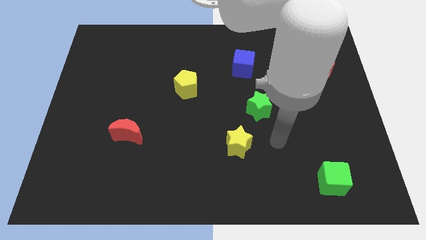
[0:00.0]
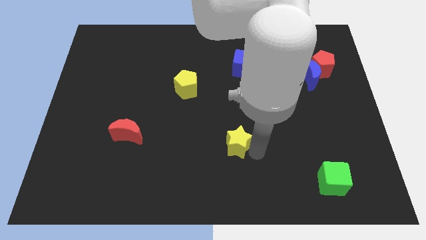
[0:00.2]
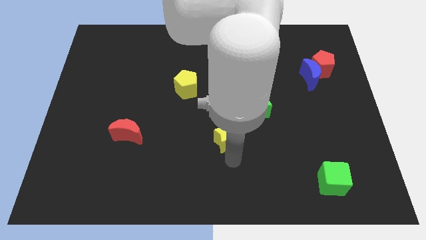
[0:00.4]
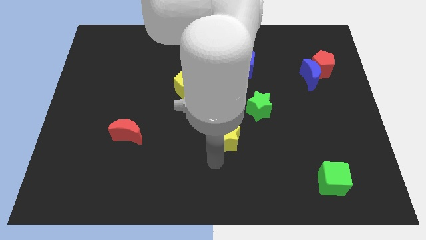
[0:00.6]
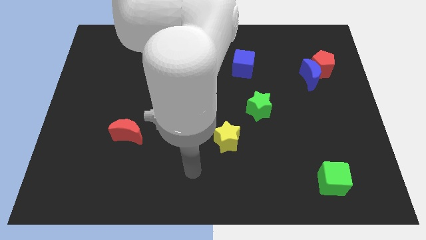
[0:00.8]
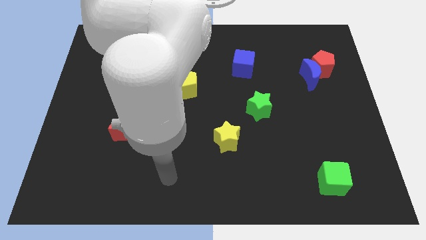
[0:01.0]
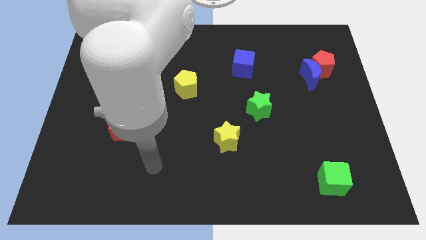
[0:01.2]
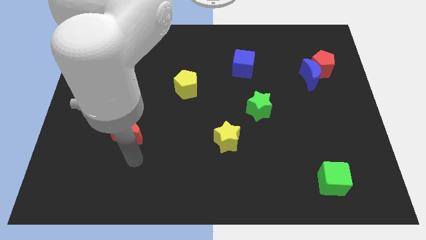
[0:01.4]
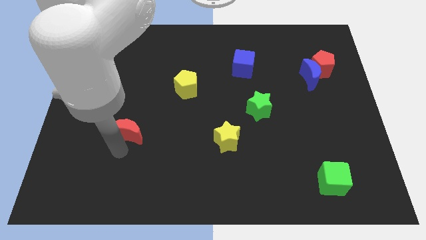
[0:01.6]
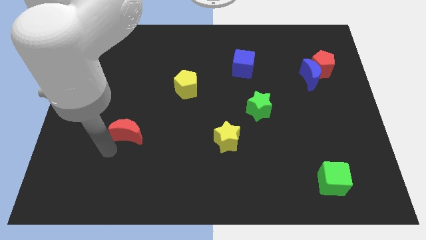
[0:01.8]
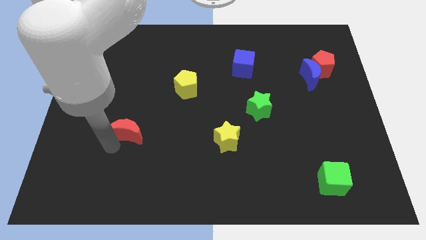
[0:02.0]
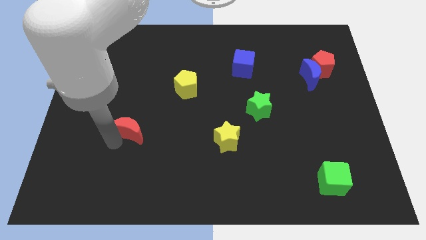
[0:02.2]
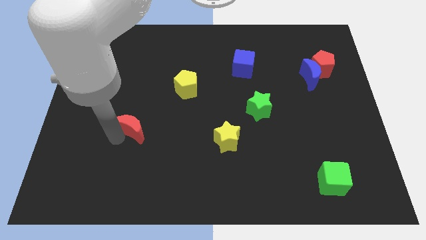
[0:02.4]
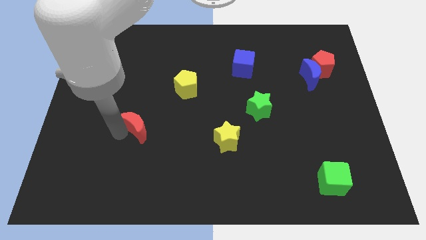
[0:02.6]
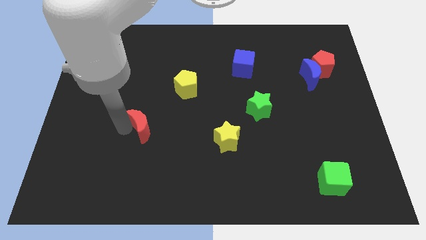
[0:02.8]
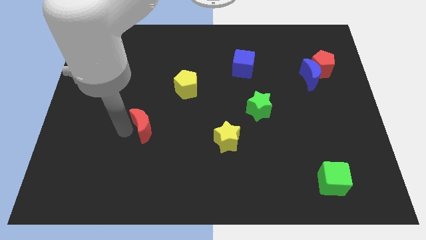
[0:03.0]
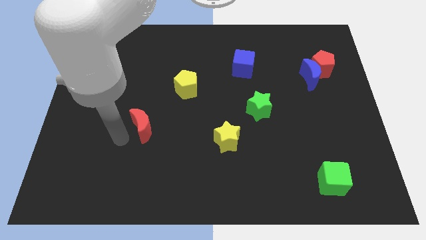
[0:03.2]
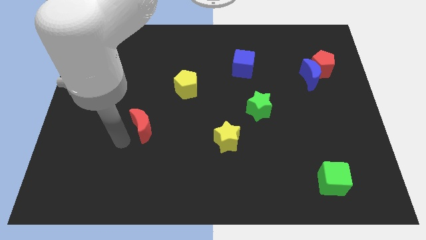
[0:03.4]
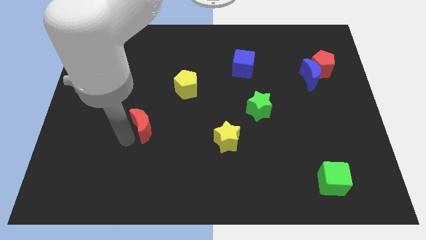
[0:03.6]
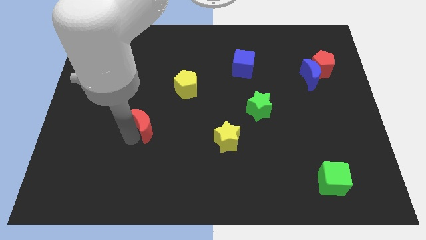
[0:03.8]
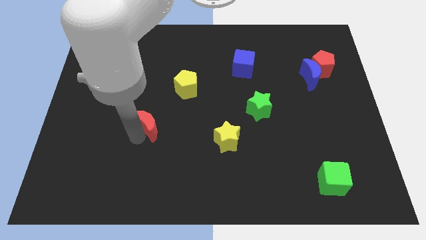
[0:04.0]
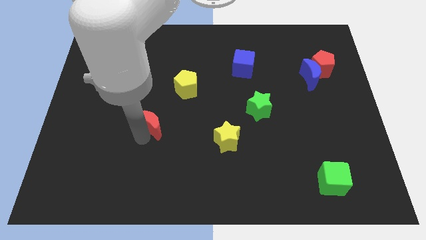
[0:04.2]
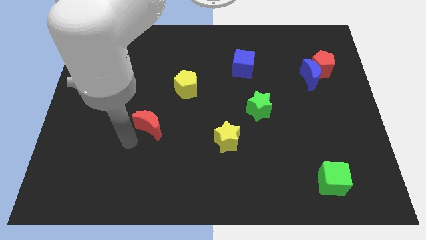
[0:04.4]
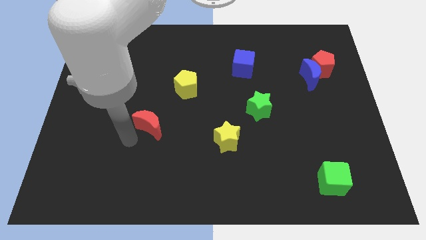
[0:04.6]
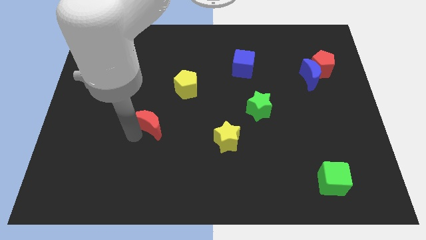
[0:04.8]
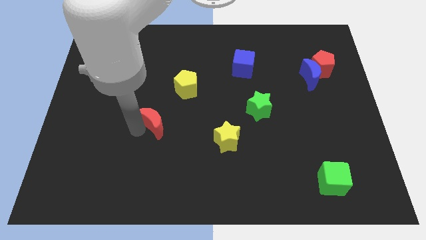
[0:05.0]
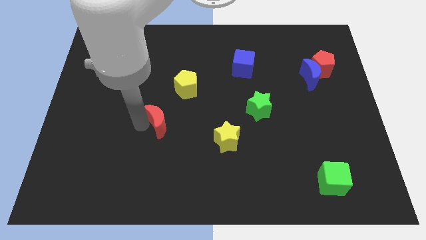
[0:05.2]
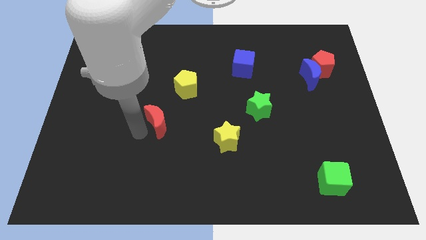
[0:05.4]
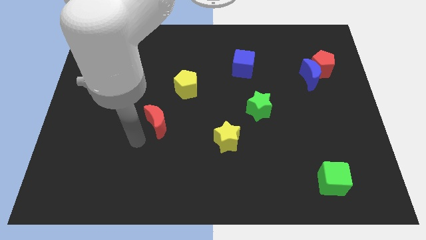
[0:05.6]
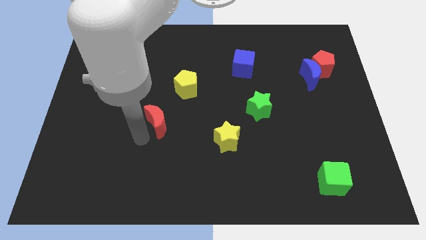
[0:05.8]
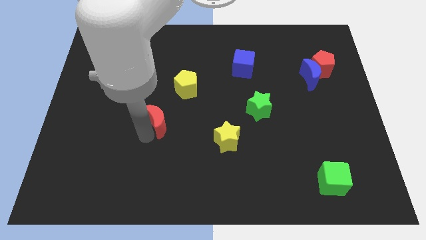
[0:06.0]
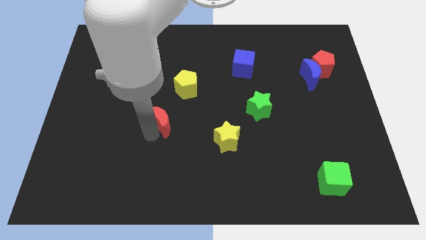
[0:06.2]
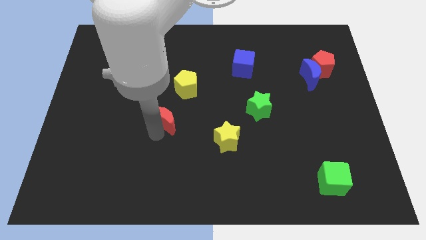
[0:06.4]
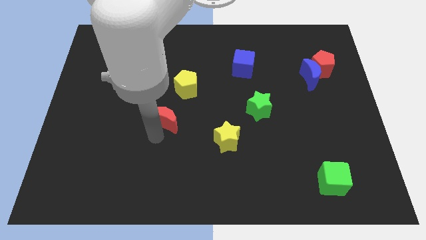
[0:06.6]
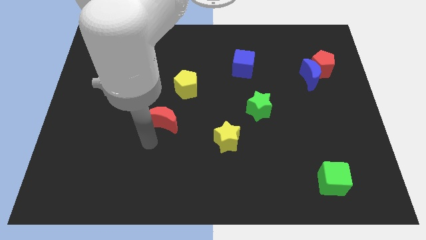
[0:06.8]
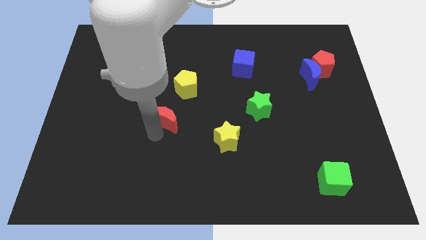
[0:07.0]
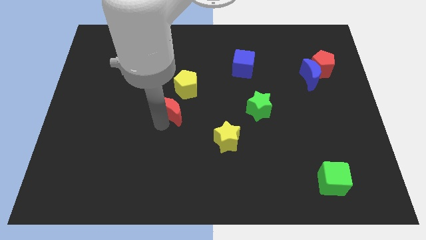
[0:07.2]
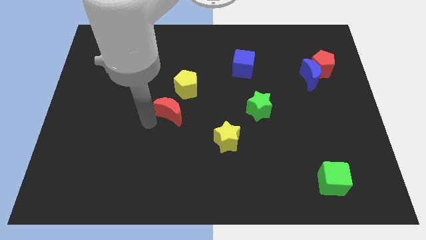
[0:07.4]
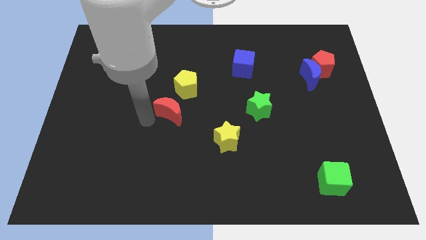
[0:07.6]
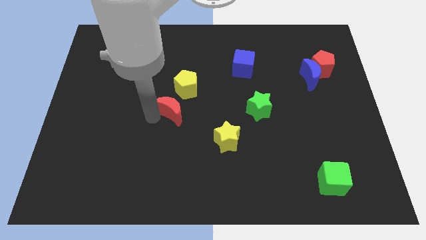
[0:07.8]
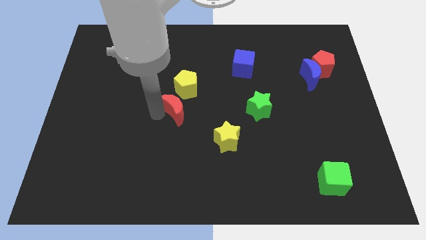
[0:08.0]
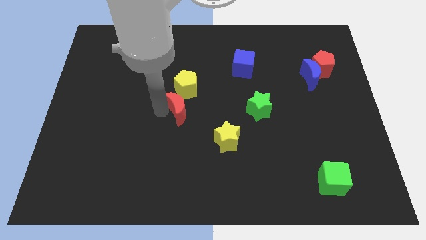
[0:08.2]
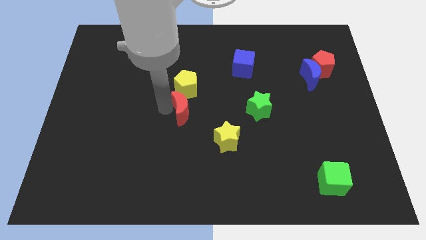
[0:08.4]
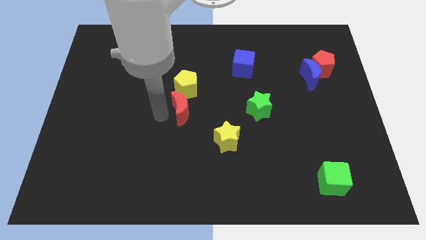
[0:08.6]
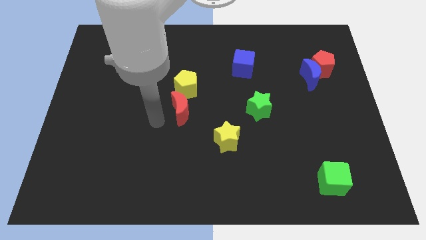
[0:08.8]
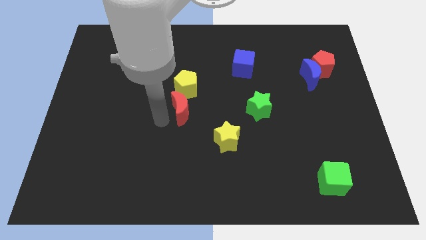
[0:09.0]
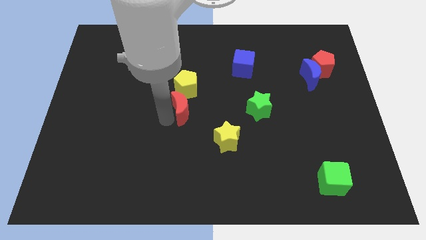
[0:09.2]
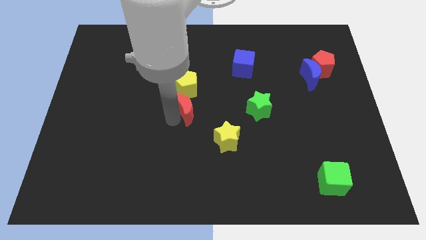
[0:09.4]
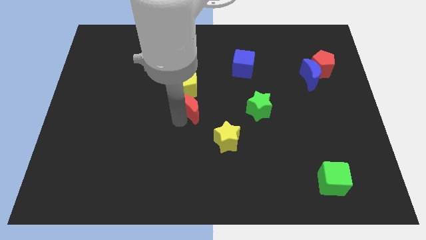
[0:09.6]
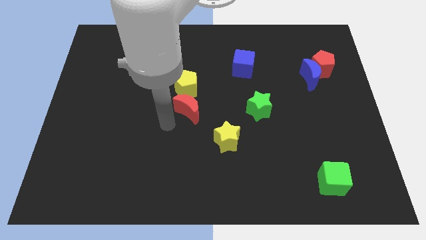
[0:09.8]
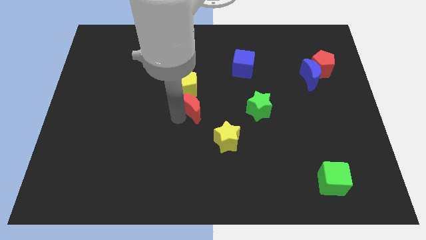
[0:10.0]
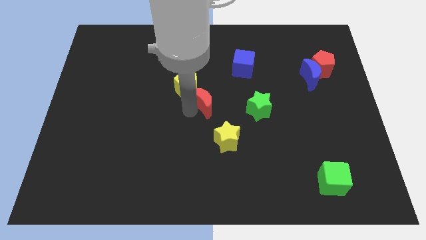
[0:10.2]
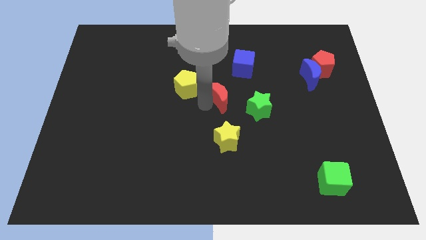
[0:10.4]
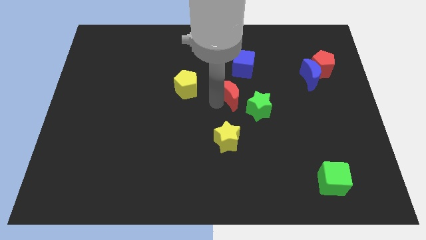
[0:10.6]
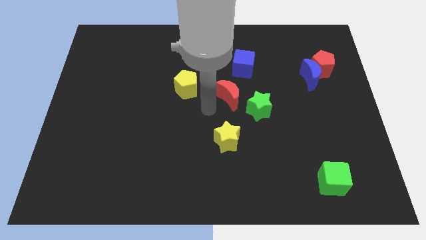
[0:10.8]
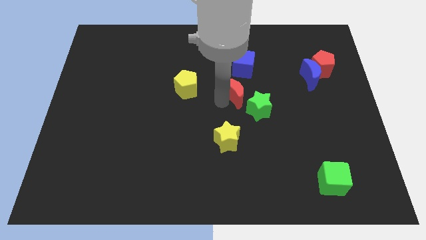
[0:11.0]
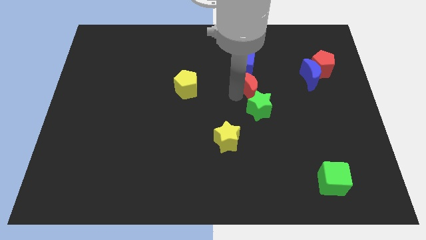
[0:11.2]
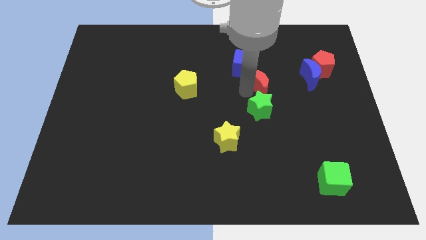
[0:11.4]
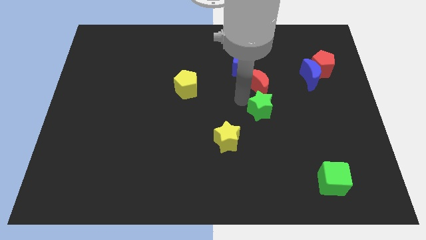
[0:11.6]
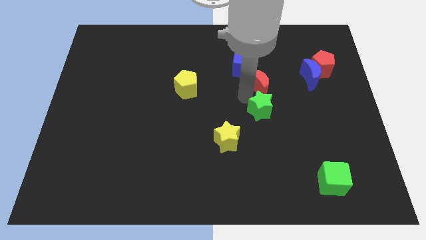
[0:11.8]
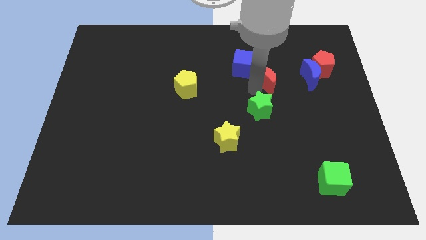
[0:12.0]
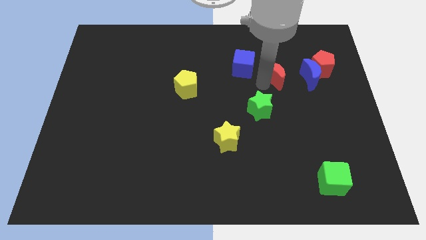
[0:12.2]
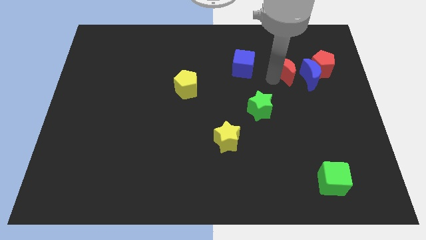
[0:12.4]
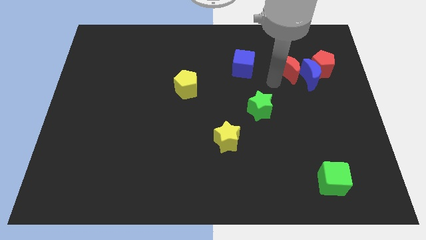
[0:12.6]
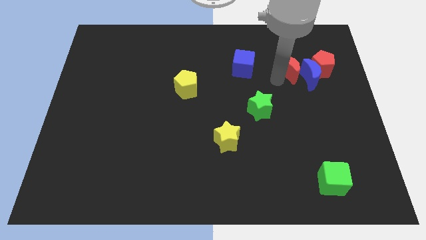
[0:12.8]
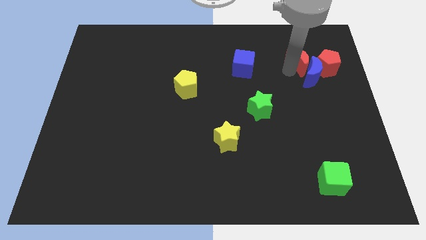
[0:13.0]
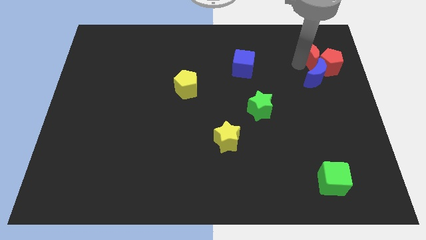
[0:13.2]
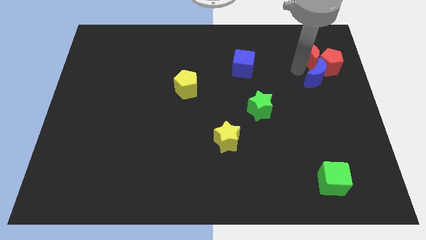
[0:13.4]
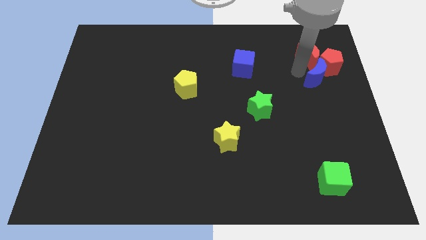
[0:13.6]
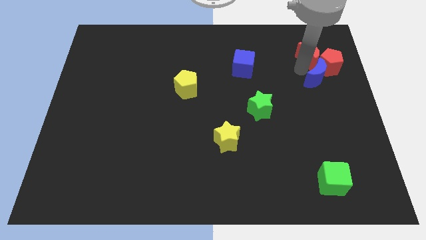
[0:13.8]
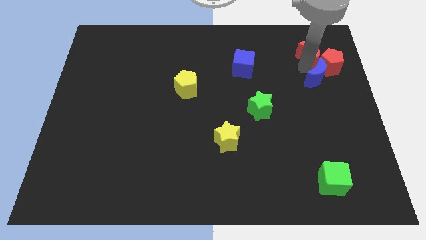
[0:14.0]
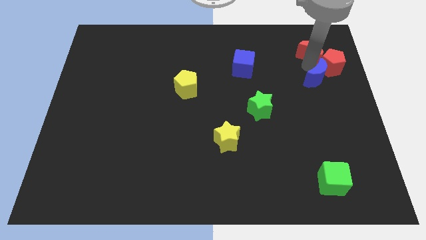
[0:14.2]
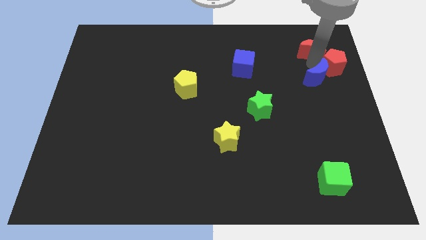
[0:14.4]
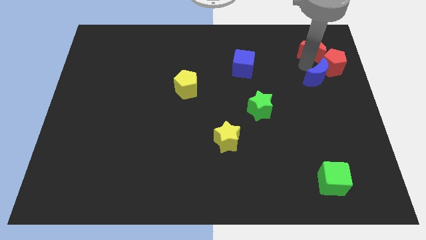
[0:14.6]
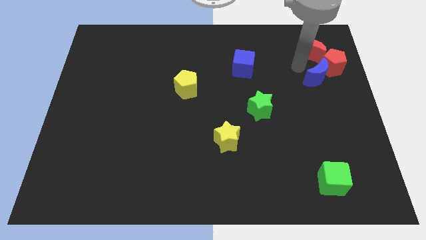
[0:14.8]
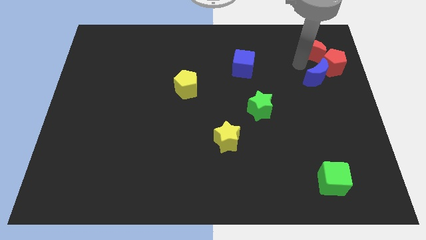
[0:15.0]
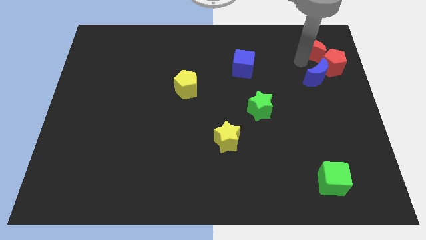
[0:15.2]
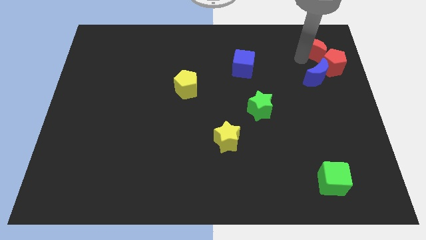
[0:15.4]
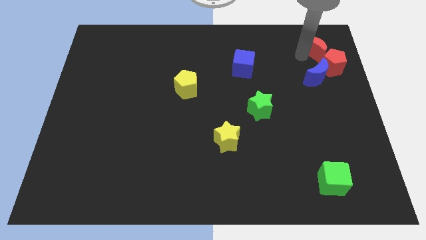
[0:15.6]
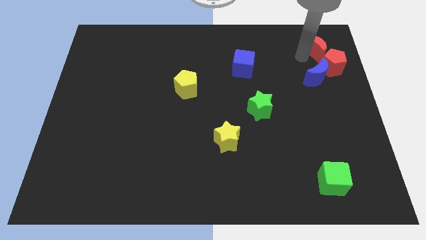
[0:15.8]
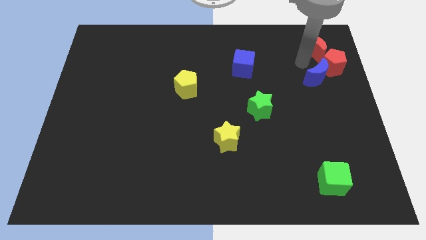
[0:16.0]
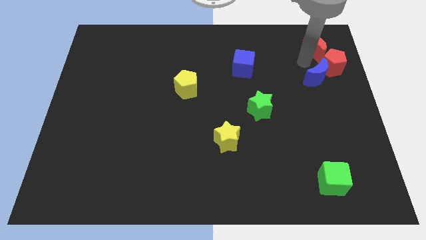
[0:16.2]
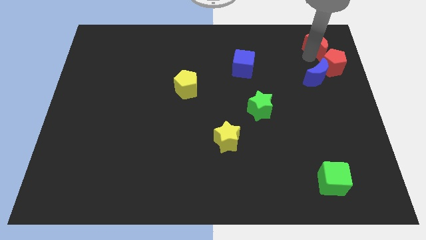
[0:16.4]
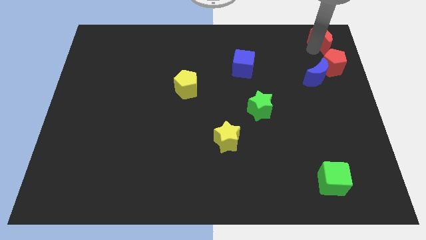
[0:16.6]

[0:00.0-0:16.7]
slide the red moon to the top right of the board
